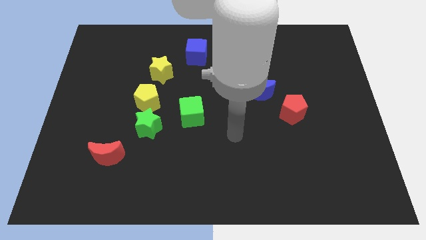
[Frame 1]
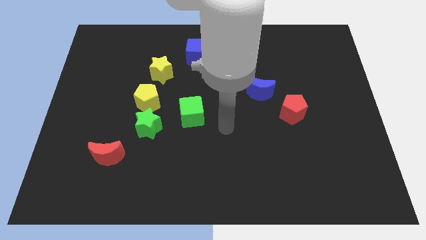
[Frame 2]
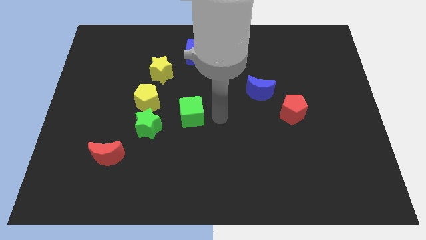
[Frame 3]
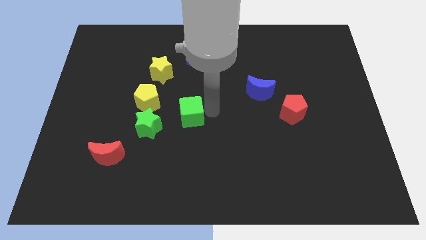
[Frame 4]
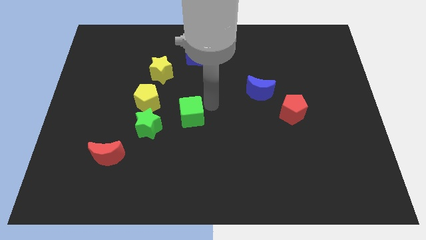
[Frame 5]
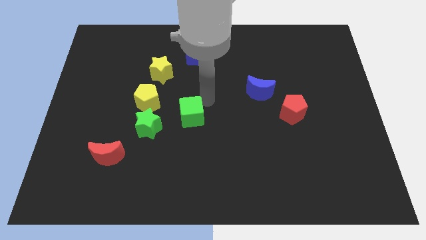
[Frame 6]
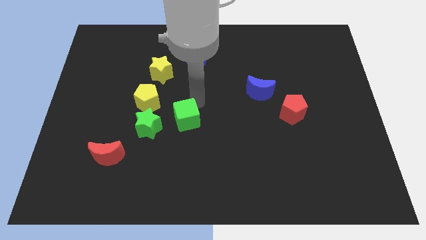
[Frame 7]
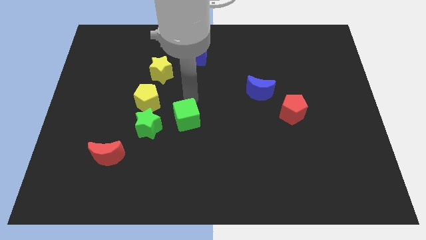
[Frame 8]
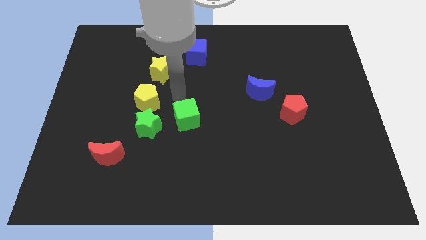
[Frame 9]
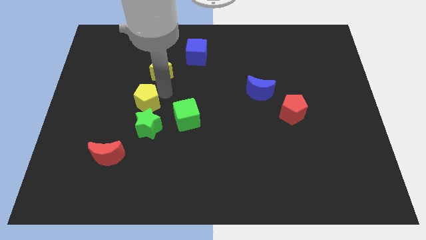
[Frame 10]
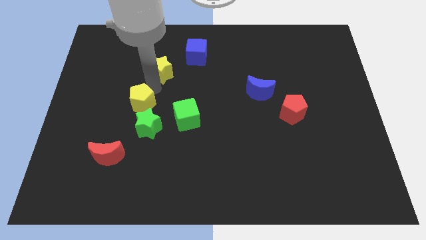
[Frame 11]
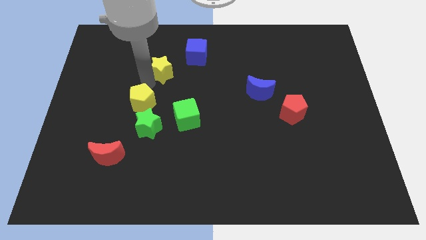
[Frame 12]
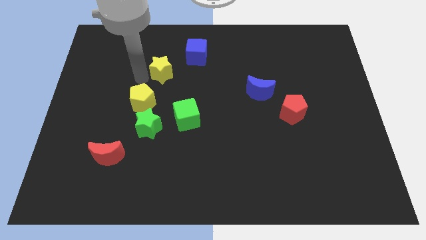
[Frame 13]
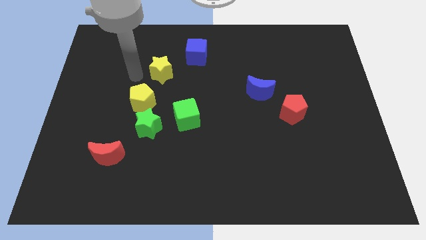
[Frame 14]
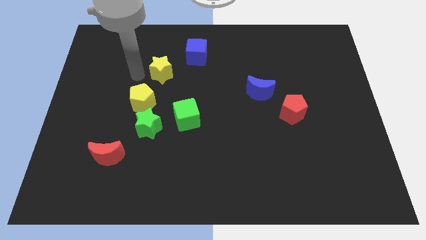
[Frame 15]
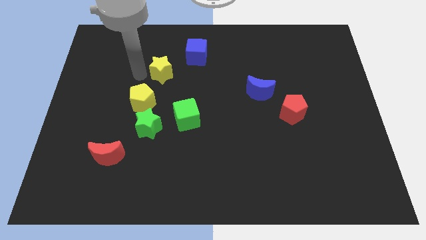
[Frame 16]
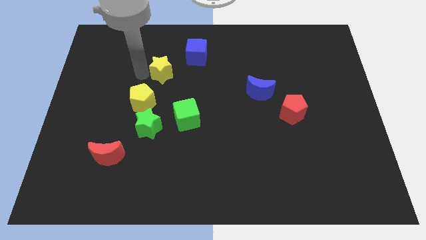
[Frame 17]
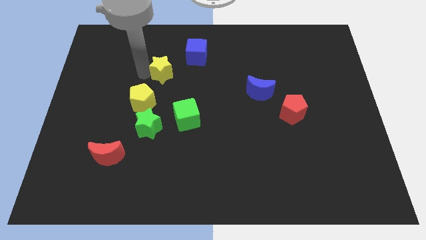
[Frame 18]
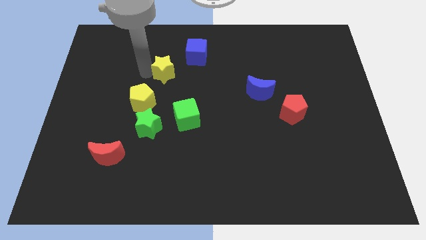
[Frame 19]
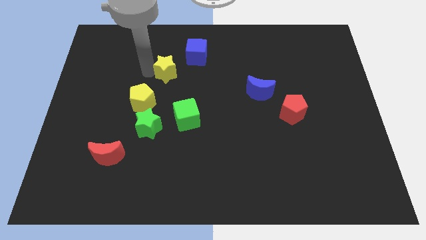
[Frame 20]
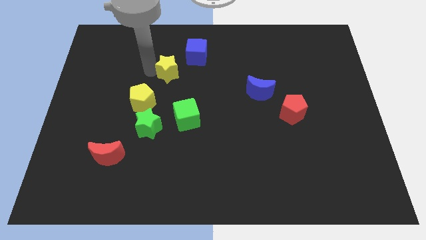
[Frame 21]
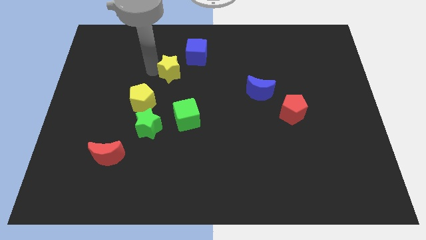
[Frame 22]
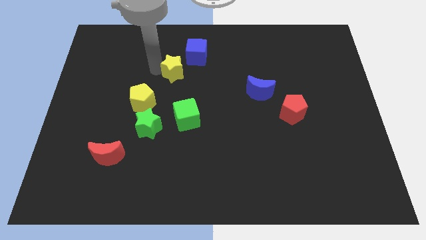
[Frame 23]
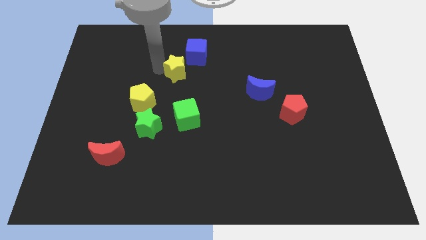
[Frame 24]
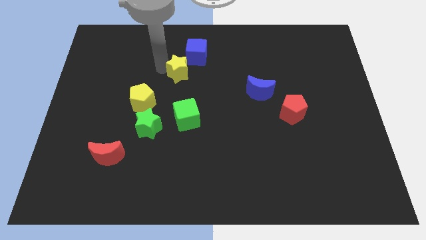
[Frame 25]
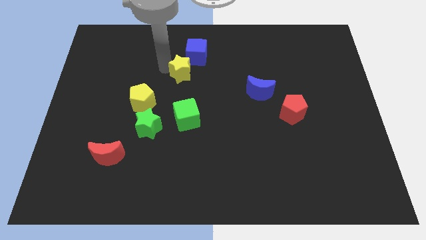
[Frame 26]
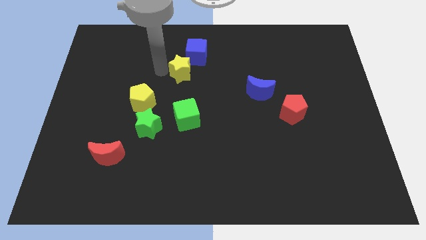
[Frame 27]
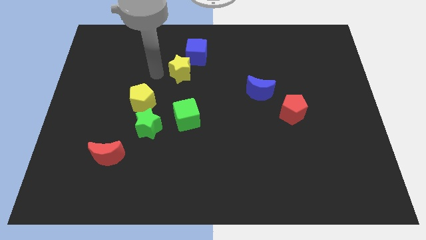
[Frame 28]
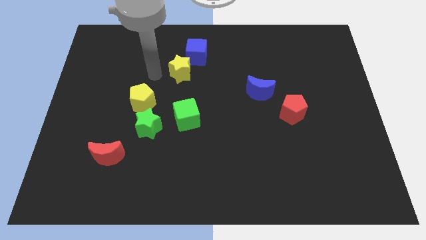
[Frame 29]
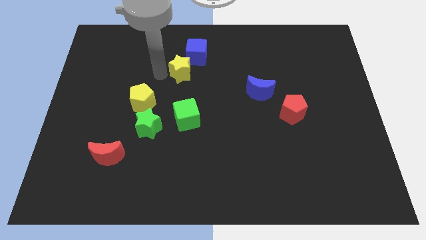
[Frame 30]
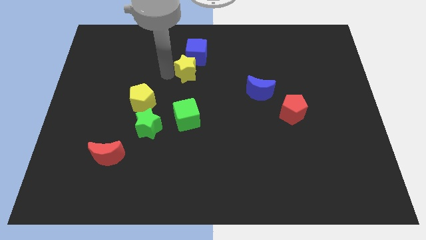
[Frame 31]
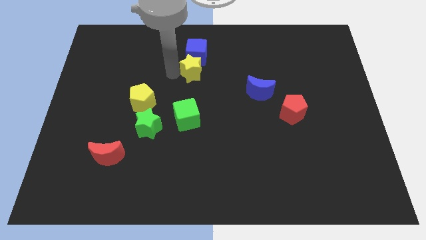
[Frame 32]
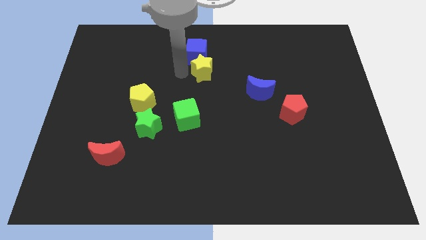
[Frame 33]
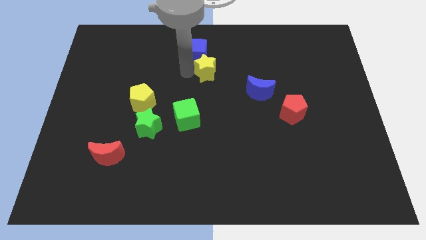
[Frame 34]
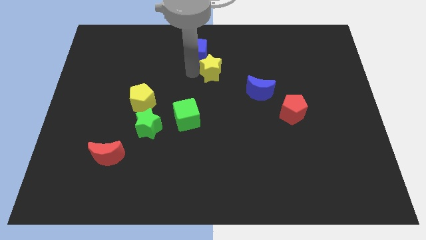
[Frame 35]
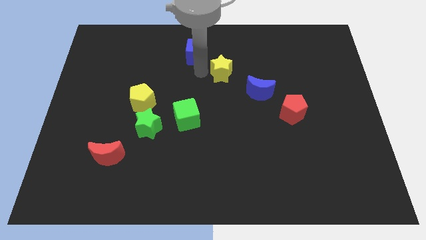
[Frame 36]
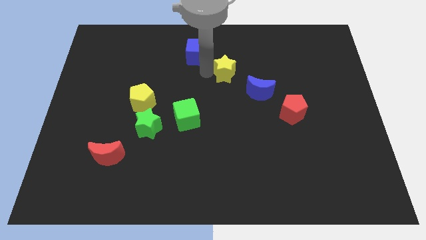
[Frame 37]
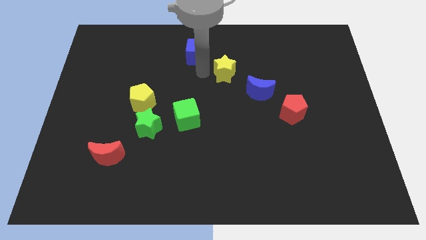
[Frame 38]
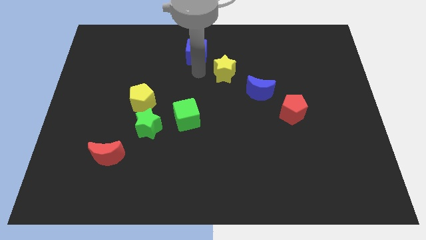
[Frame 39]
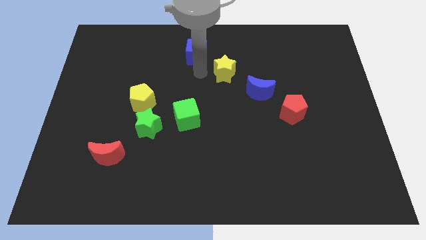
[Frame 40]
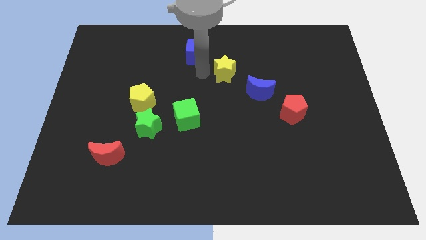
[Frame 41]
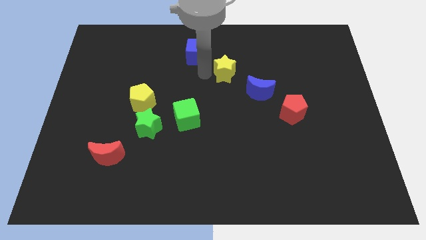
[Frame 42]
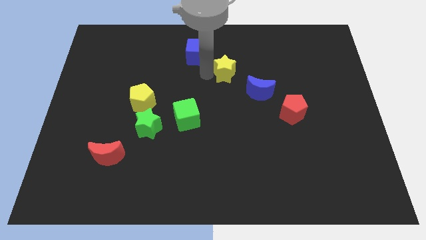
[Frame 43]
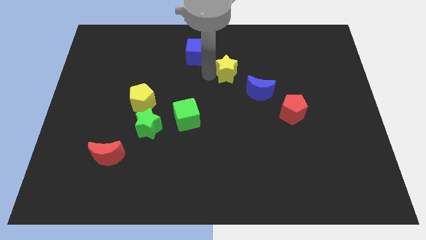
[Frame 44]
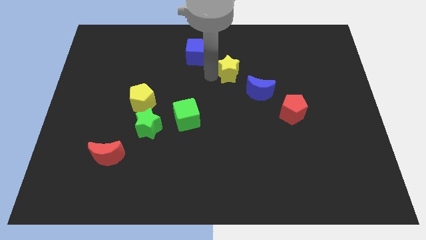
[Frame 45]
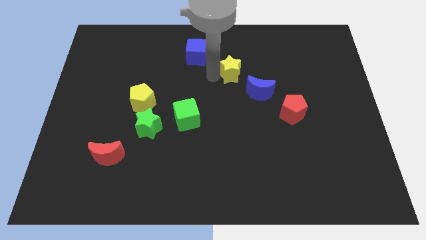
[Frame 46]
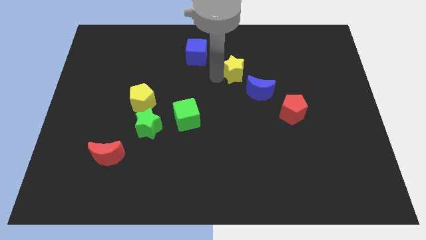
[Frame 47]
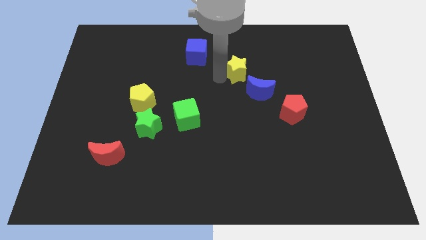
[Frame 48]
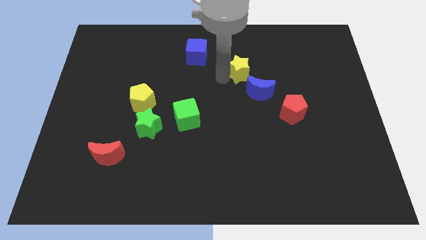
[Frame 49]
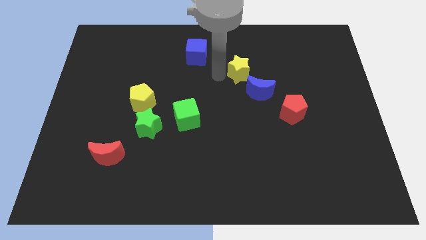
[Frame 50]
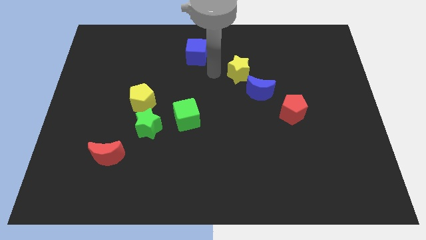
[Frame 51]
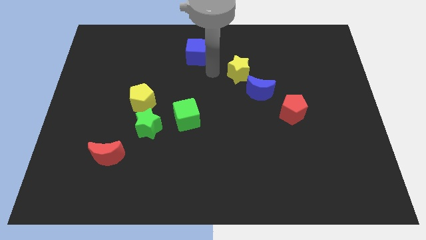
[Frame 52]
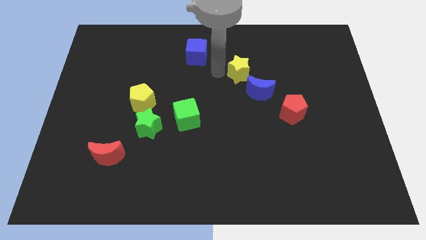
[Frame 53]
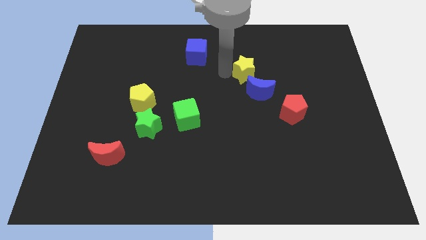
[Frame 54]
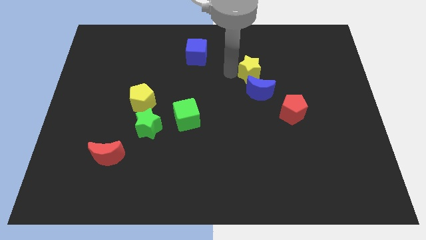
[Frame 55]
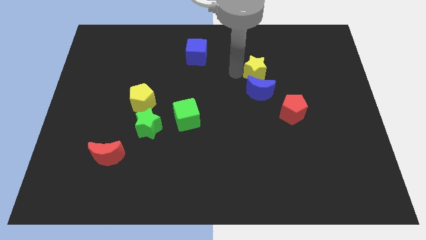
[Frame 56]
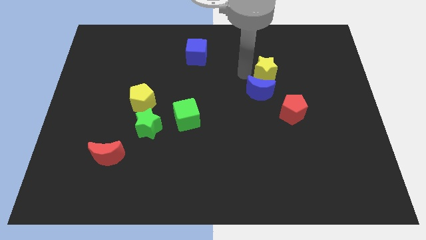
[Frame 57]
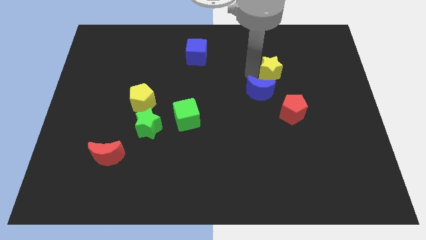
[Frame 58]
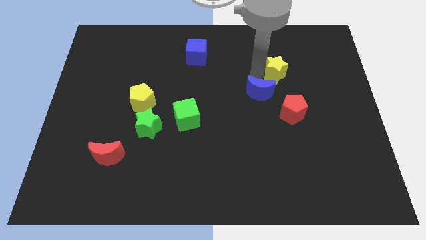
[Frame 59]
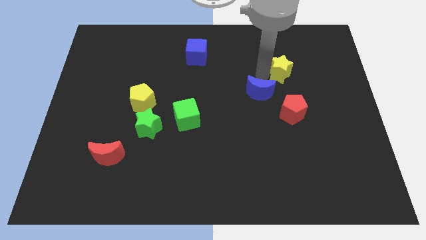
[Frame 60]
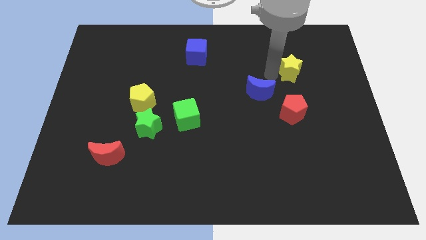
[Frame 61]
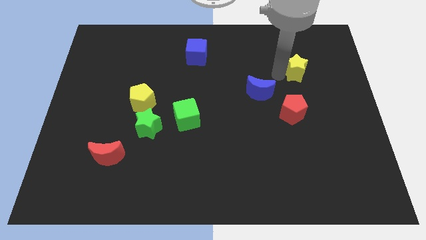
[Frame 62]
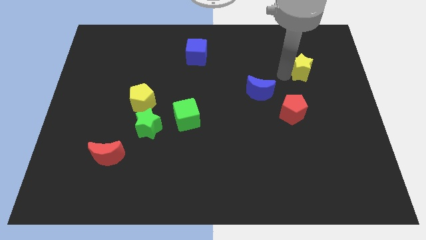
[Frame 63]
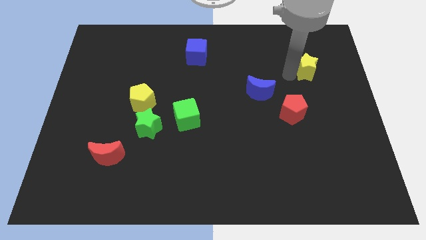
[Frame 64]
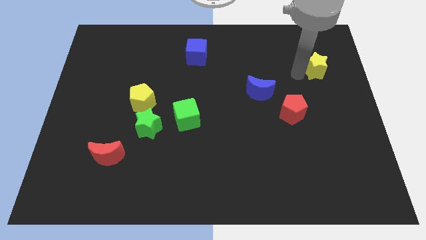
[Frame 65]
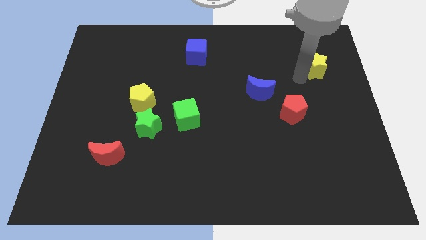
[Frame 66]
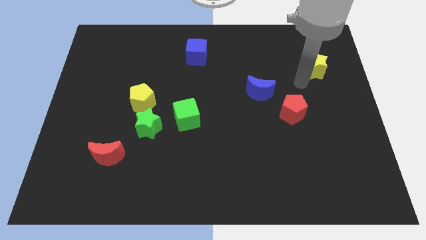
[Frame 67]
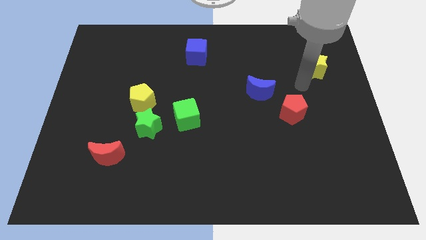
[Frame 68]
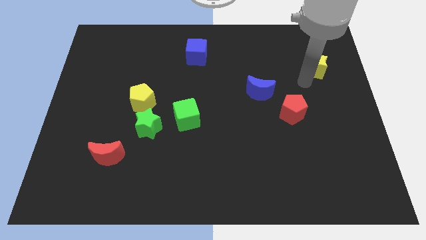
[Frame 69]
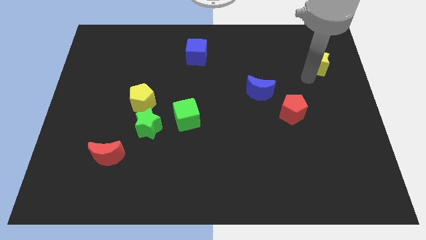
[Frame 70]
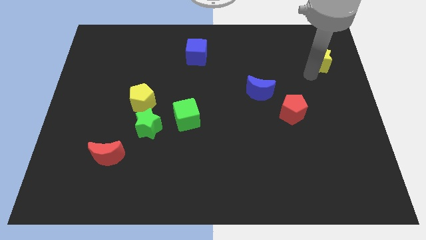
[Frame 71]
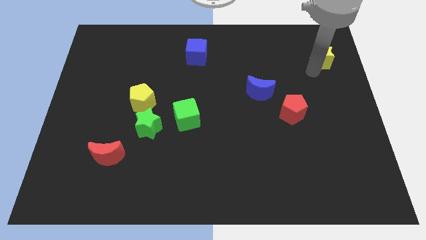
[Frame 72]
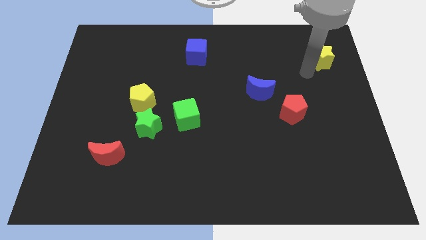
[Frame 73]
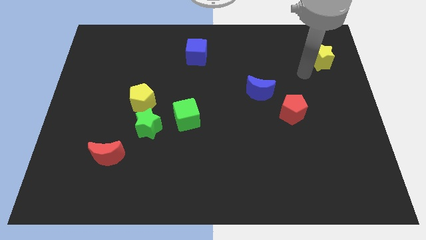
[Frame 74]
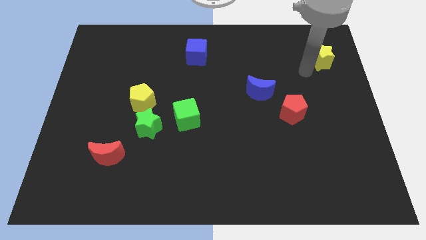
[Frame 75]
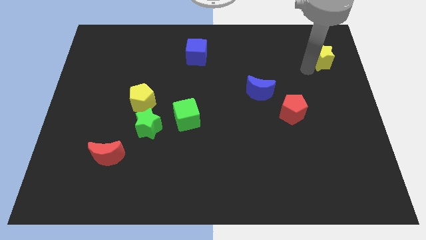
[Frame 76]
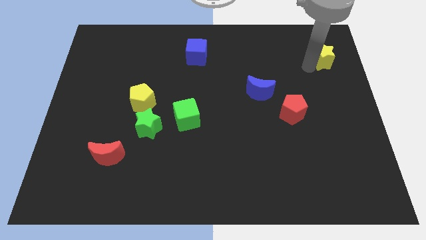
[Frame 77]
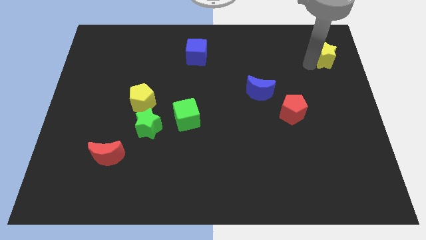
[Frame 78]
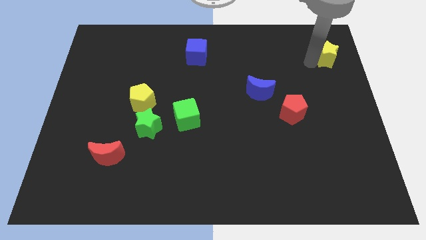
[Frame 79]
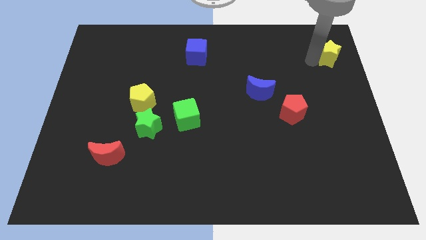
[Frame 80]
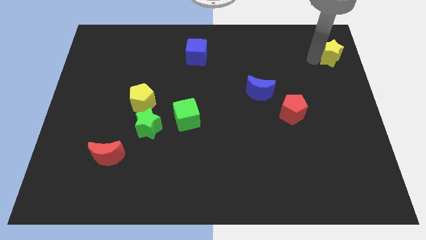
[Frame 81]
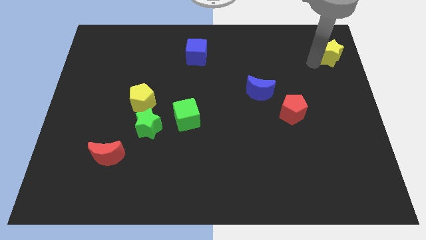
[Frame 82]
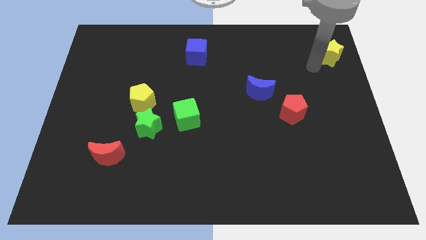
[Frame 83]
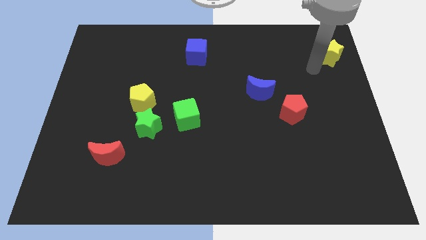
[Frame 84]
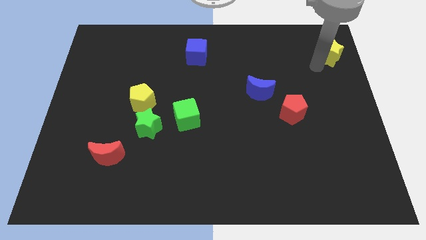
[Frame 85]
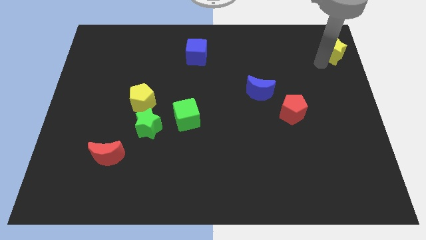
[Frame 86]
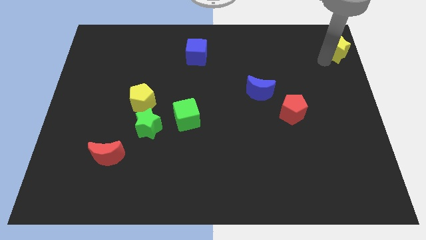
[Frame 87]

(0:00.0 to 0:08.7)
put the yellow star to the top right of the board
